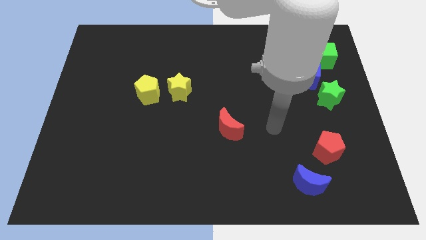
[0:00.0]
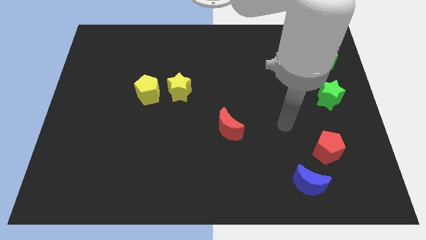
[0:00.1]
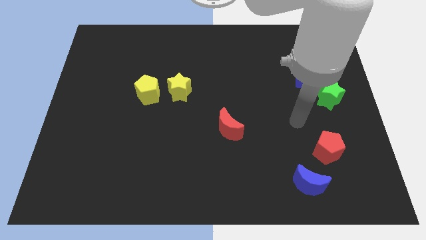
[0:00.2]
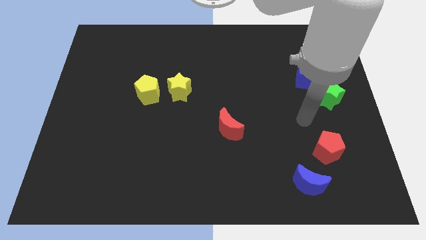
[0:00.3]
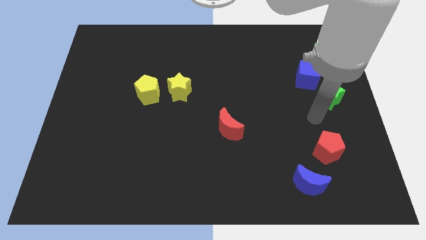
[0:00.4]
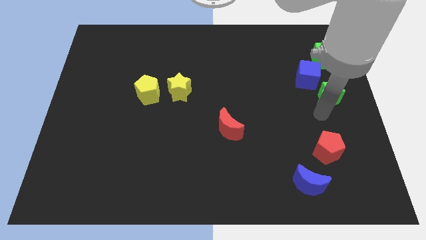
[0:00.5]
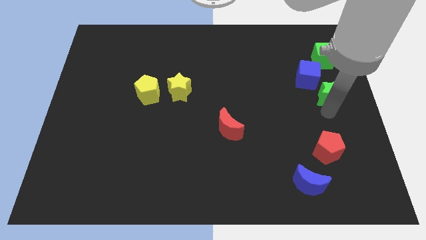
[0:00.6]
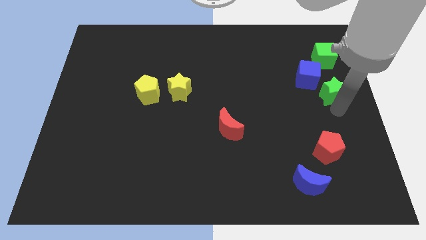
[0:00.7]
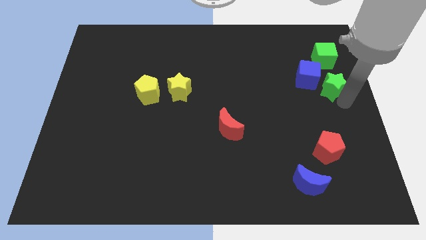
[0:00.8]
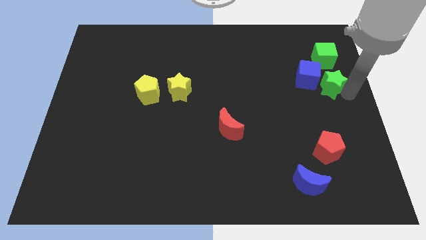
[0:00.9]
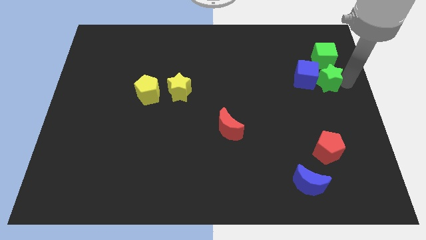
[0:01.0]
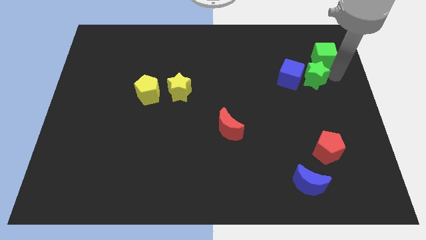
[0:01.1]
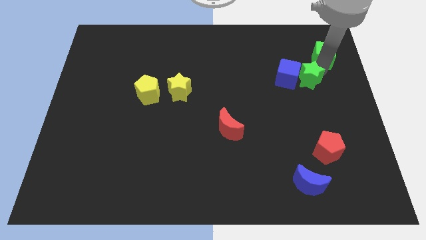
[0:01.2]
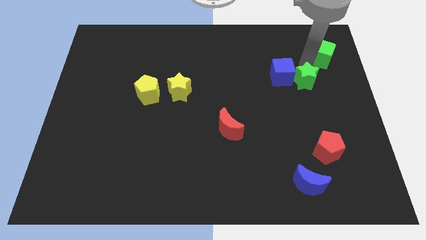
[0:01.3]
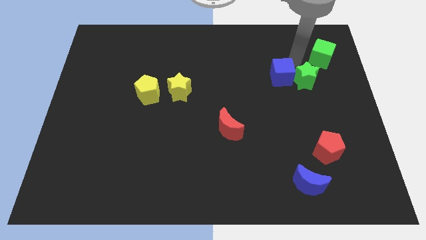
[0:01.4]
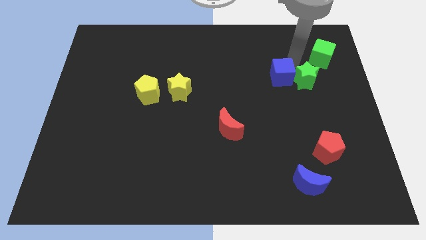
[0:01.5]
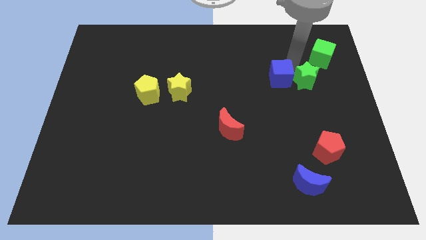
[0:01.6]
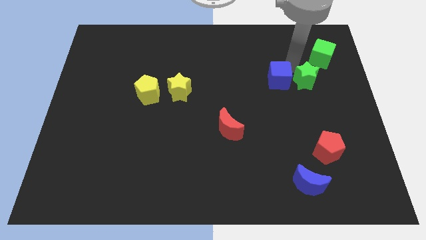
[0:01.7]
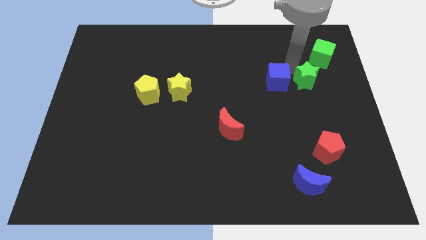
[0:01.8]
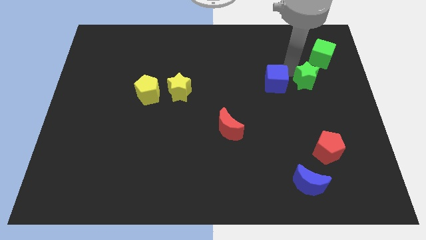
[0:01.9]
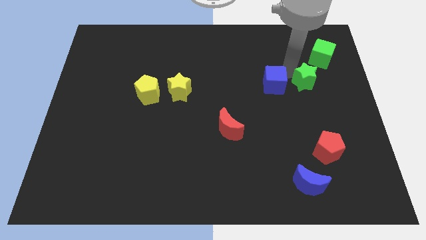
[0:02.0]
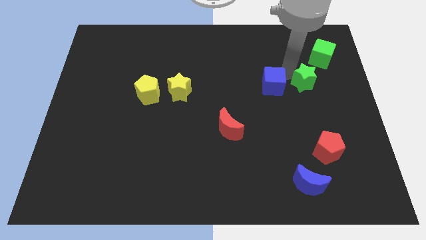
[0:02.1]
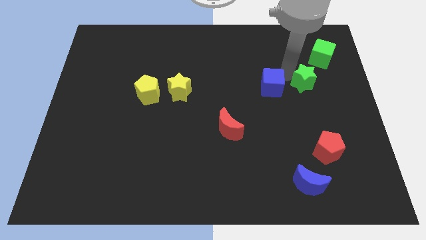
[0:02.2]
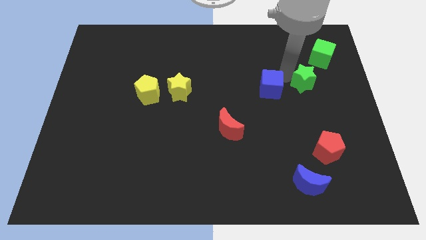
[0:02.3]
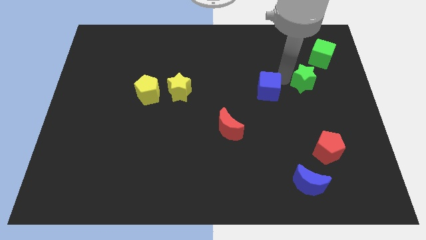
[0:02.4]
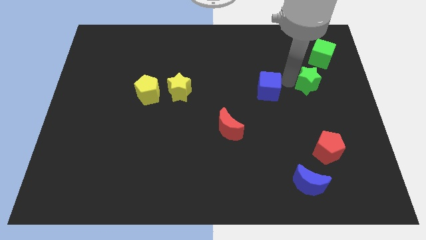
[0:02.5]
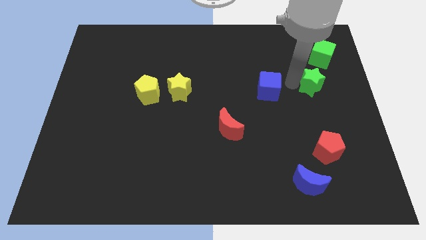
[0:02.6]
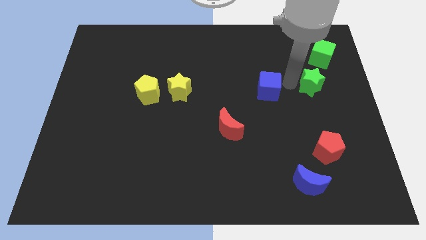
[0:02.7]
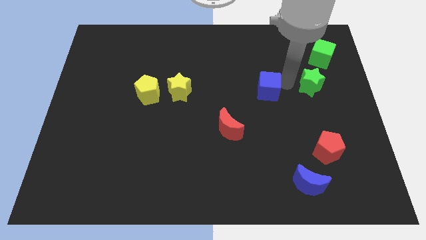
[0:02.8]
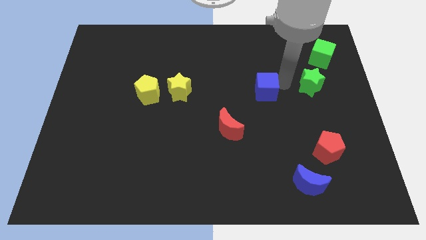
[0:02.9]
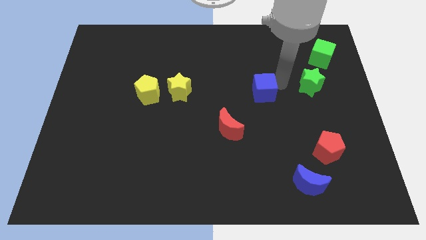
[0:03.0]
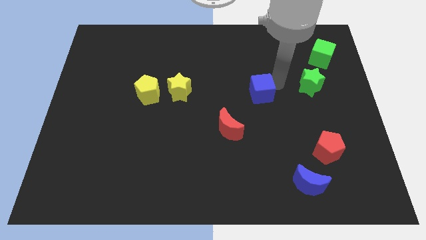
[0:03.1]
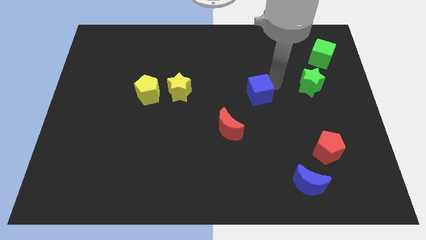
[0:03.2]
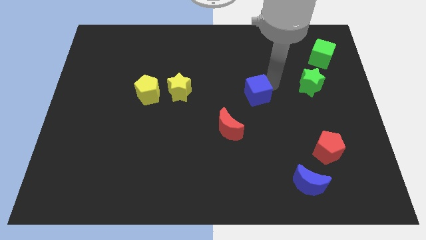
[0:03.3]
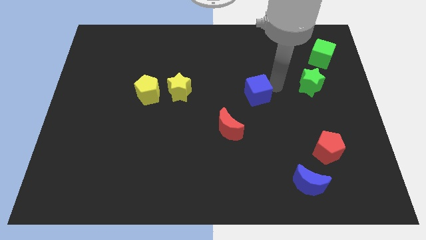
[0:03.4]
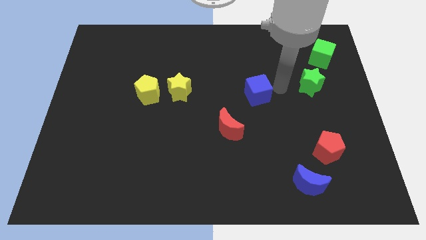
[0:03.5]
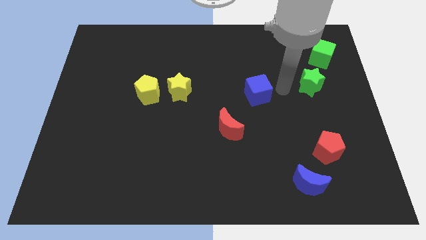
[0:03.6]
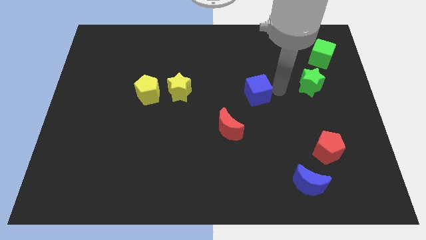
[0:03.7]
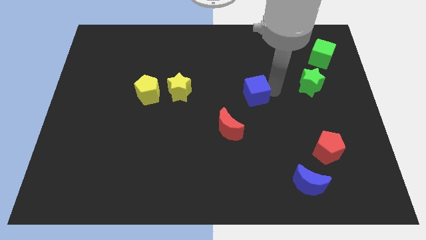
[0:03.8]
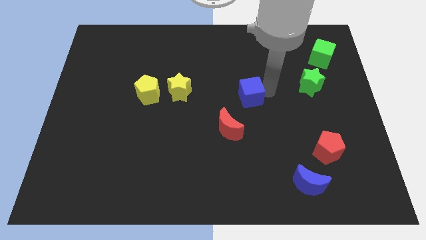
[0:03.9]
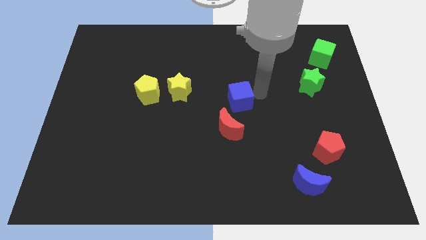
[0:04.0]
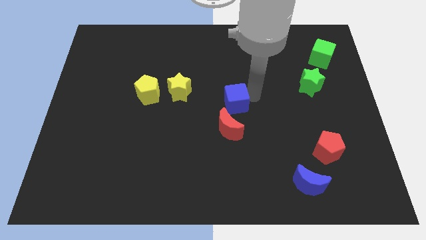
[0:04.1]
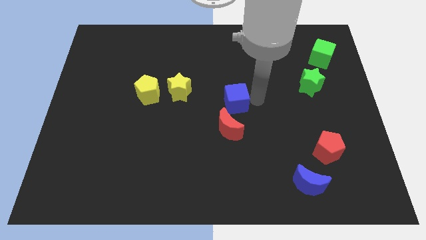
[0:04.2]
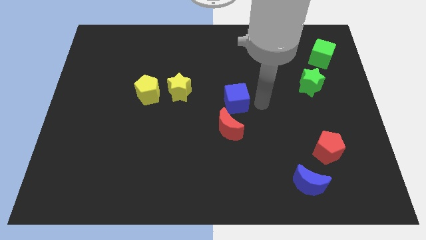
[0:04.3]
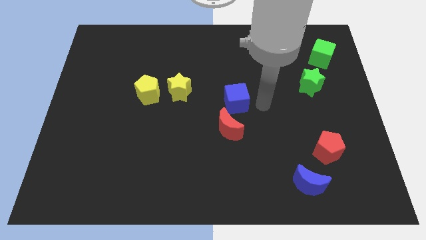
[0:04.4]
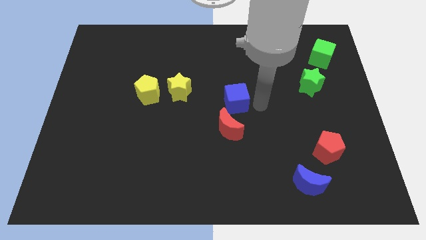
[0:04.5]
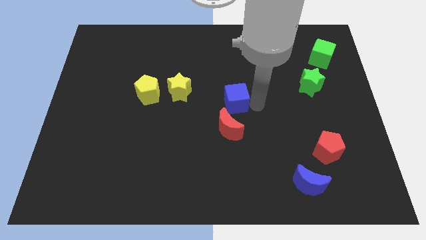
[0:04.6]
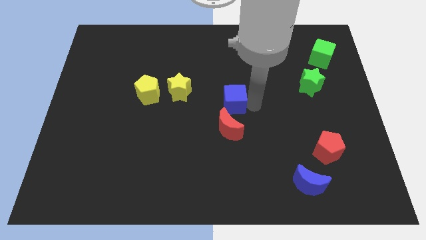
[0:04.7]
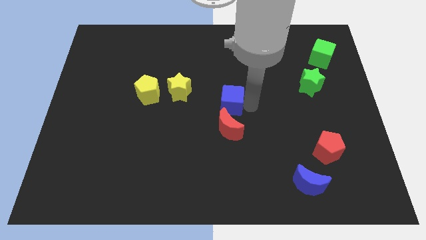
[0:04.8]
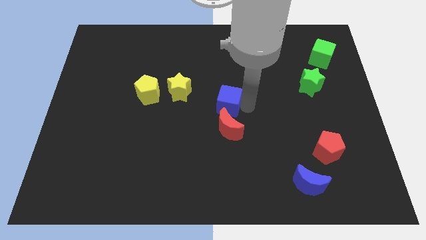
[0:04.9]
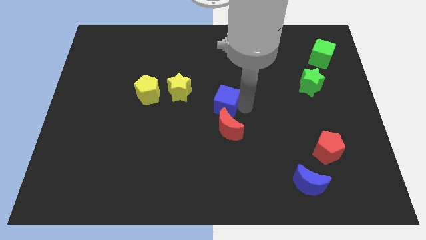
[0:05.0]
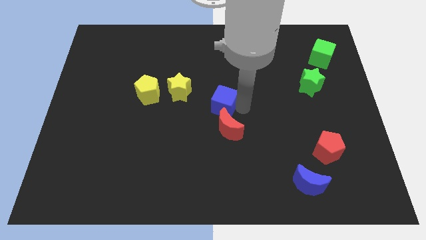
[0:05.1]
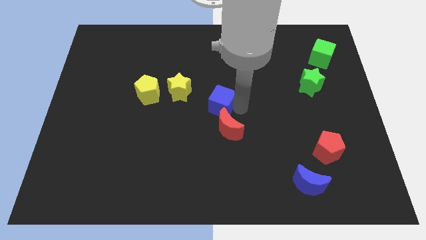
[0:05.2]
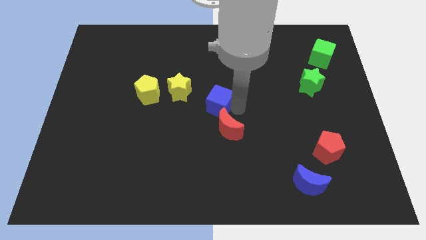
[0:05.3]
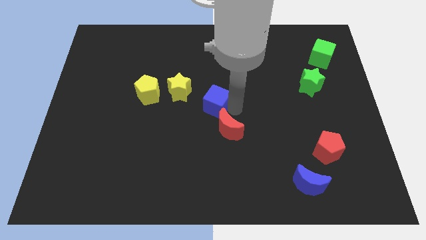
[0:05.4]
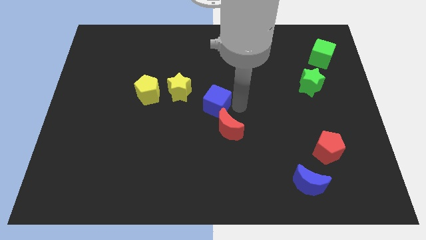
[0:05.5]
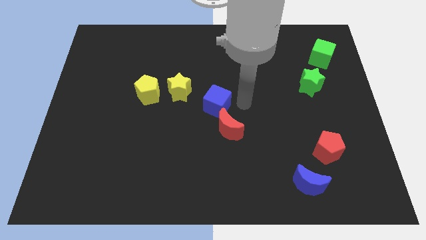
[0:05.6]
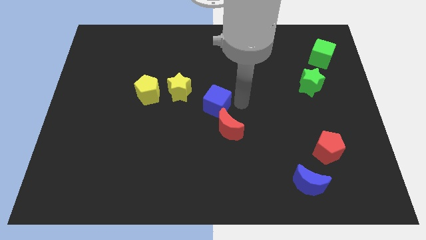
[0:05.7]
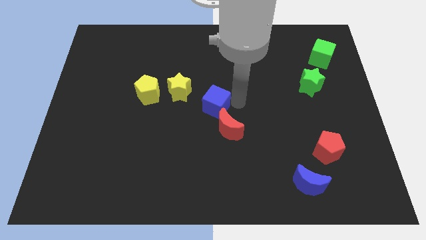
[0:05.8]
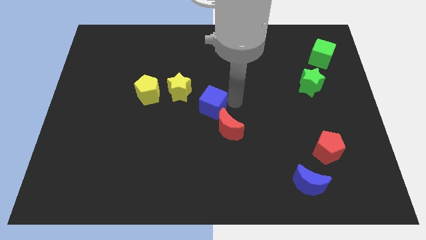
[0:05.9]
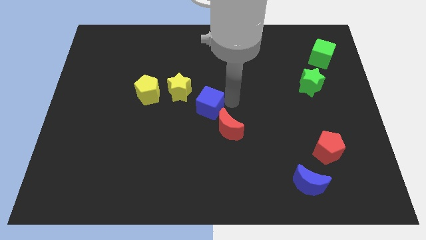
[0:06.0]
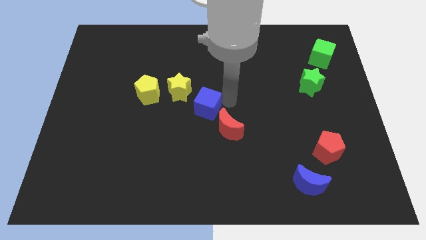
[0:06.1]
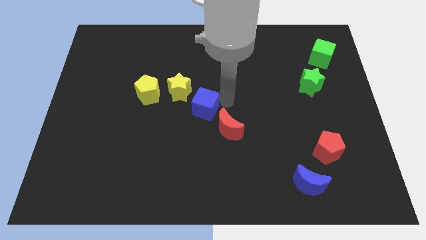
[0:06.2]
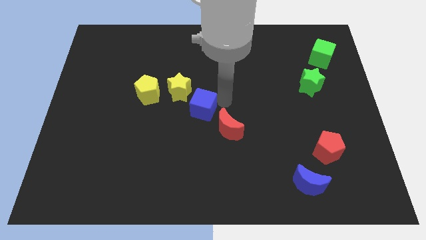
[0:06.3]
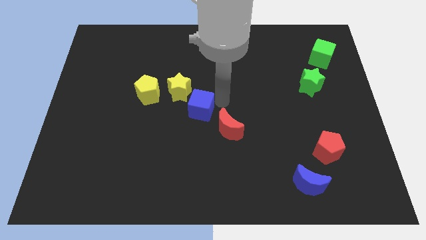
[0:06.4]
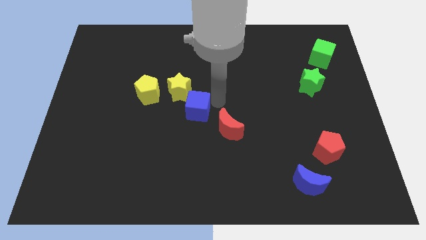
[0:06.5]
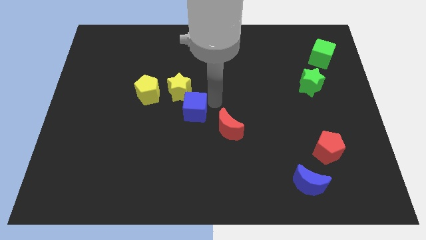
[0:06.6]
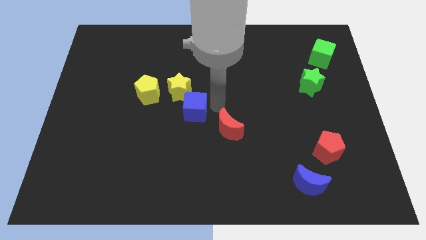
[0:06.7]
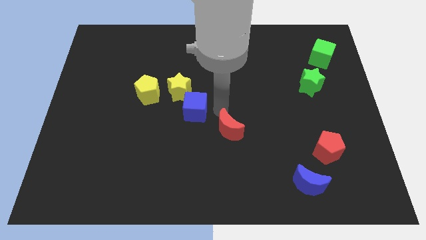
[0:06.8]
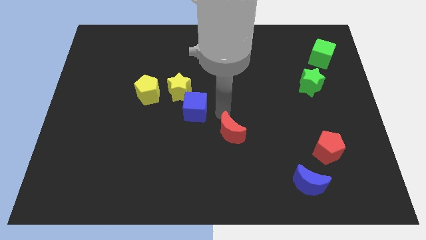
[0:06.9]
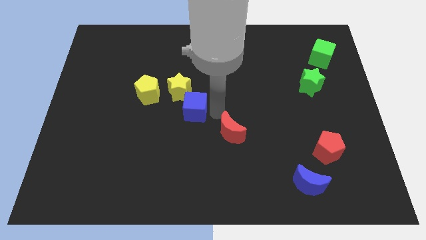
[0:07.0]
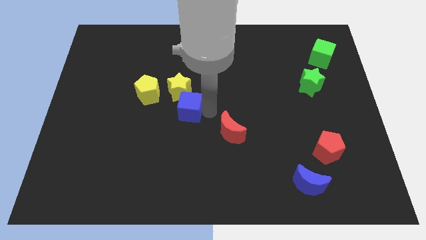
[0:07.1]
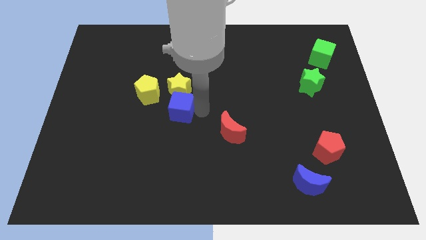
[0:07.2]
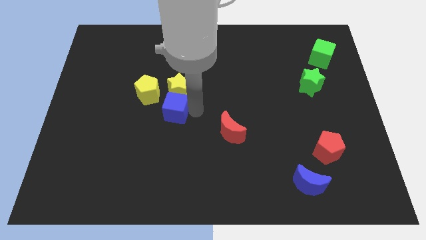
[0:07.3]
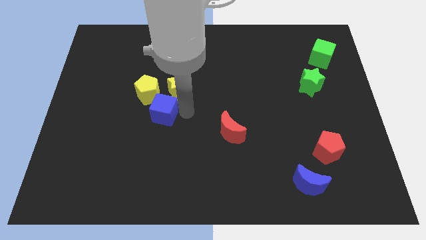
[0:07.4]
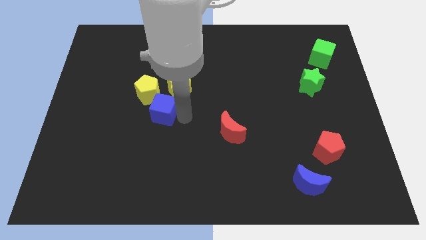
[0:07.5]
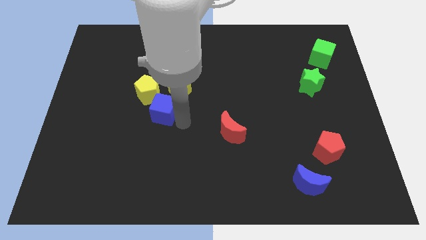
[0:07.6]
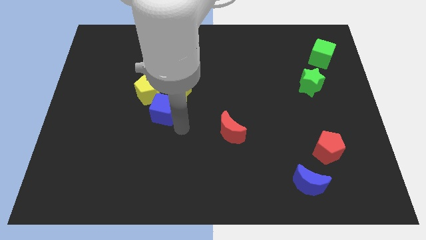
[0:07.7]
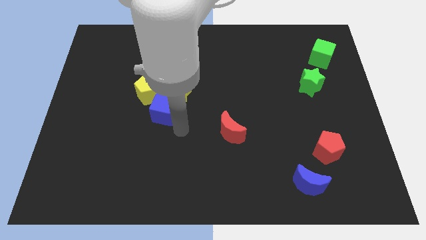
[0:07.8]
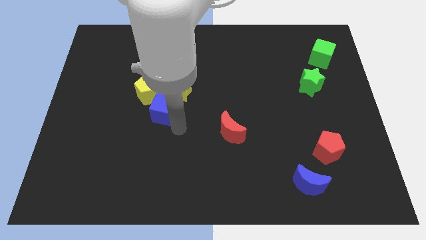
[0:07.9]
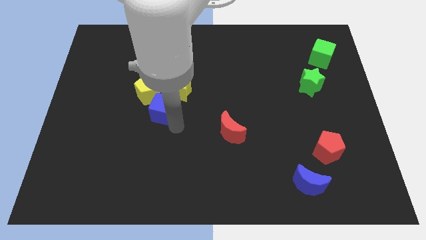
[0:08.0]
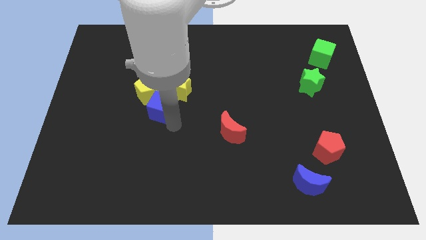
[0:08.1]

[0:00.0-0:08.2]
put the blue cube towards the yellow pentagon
